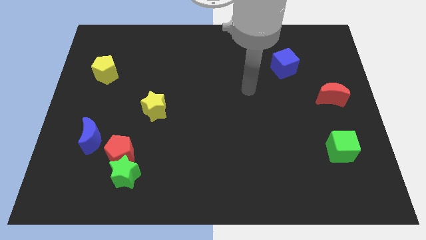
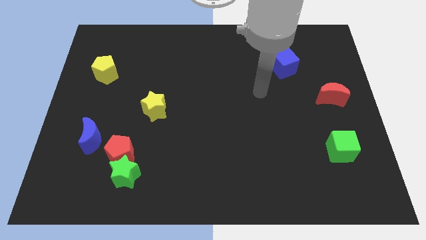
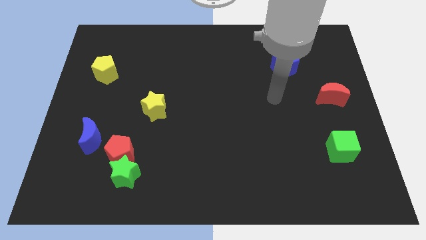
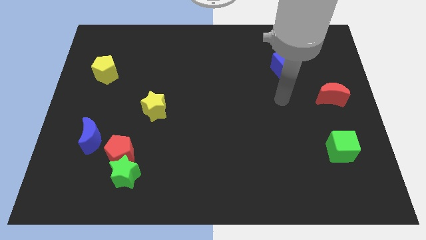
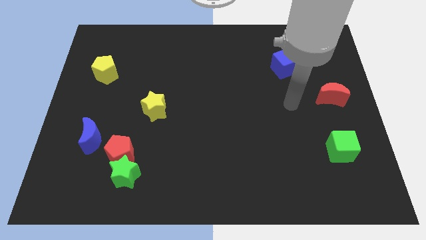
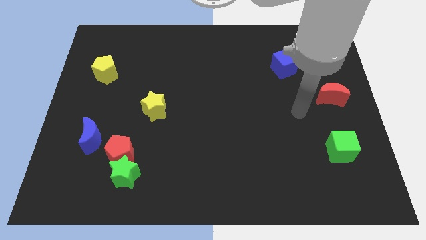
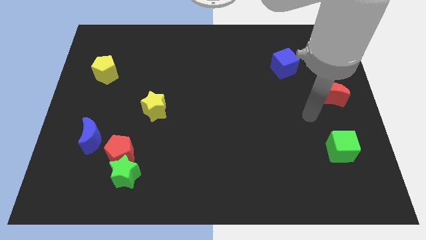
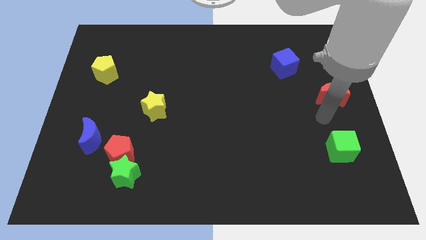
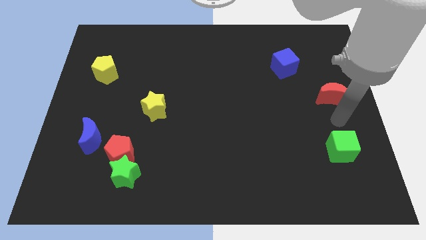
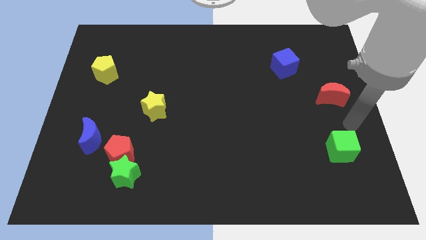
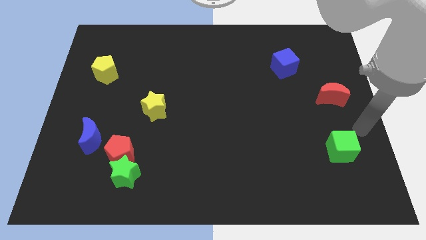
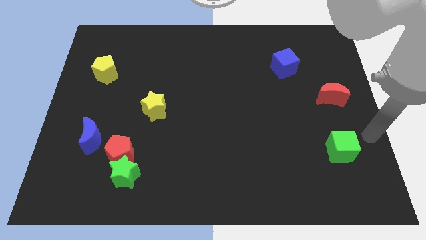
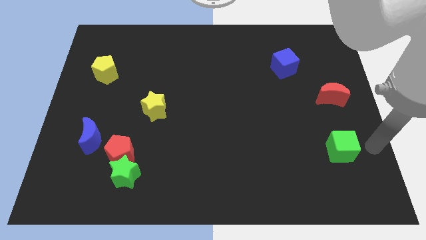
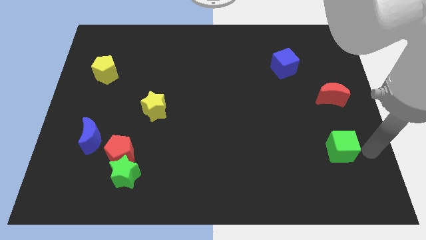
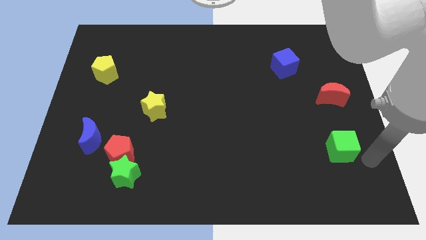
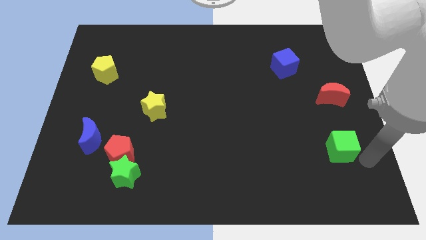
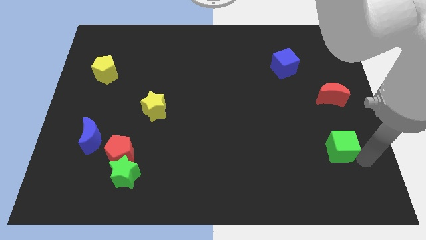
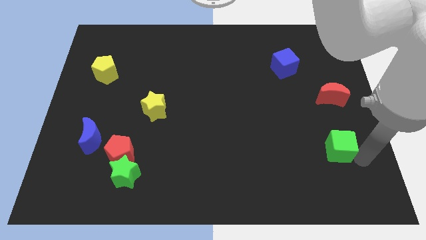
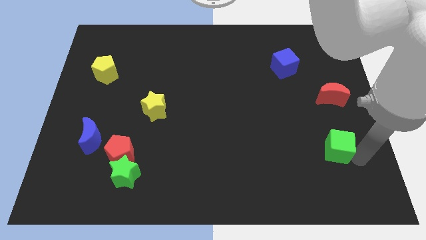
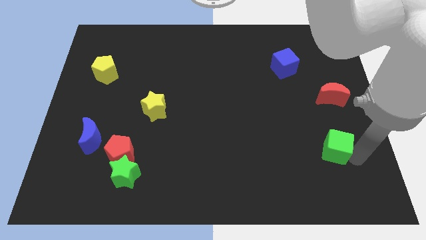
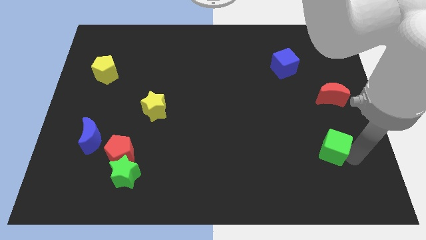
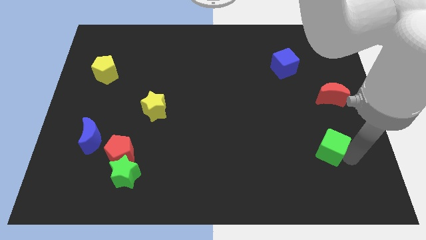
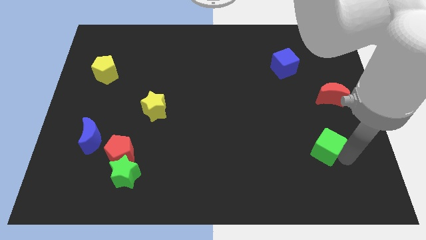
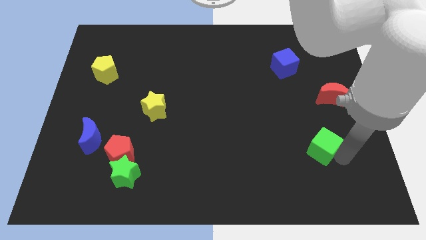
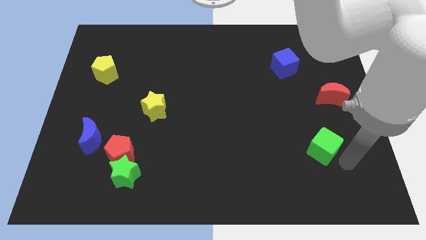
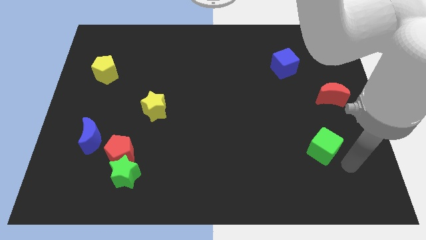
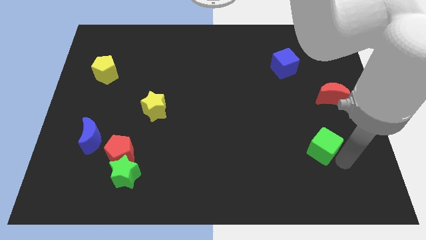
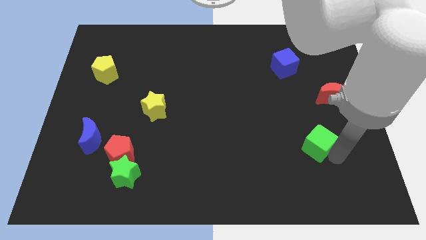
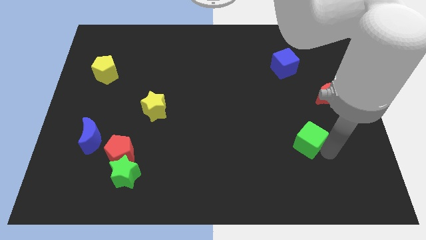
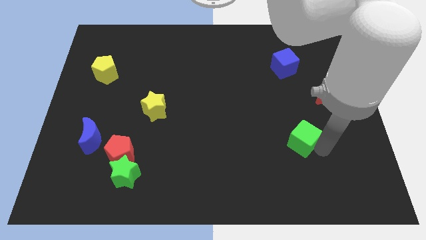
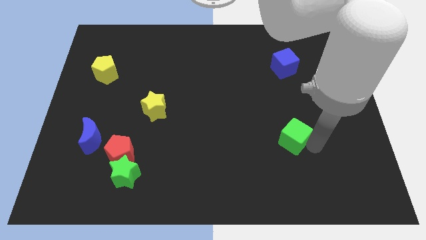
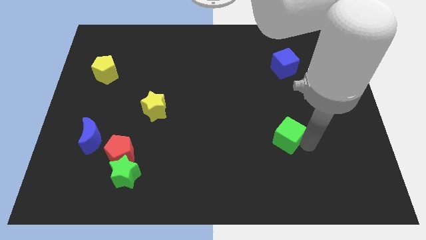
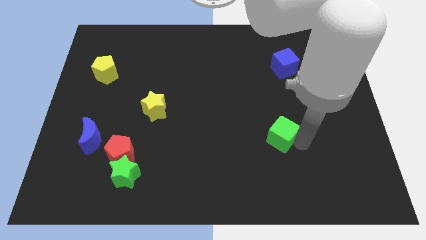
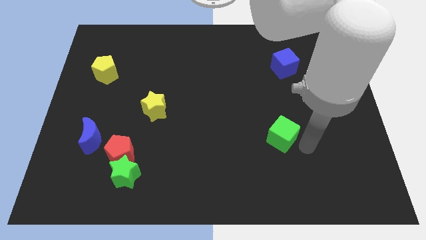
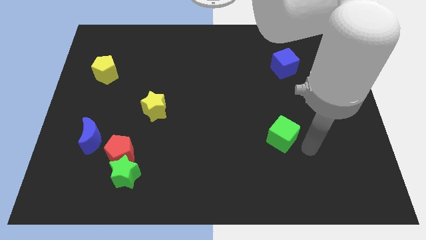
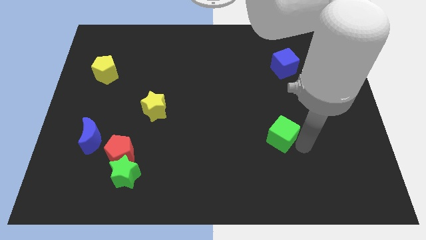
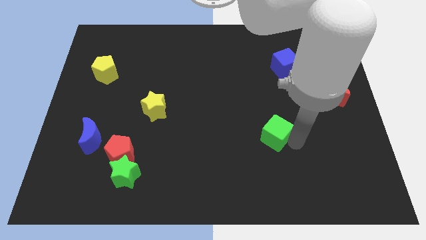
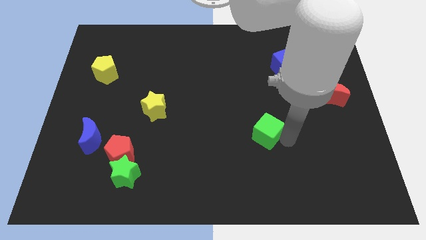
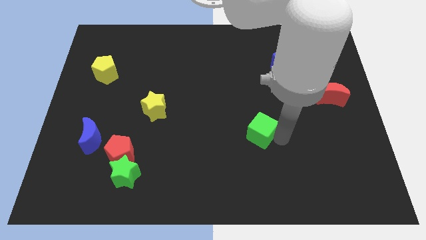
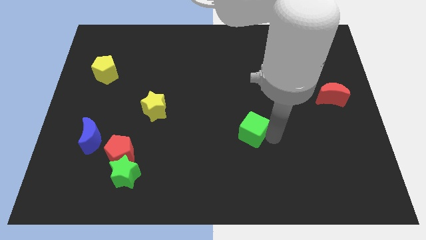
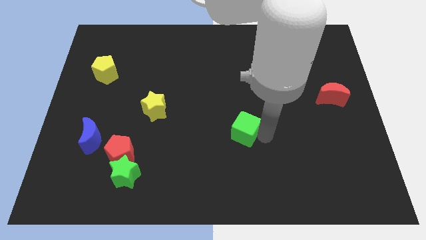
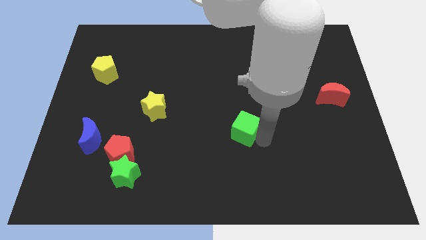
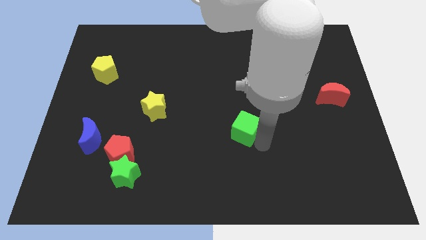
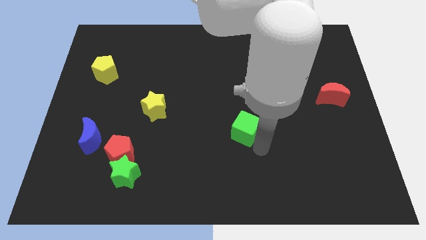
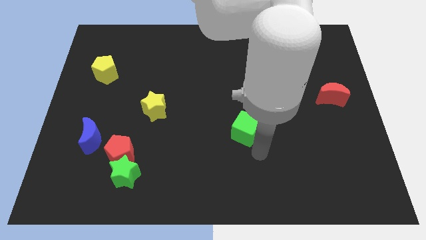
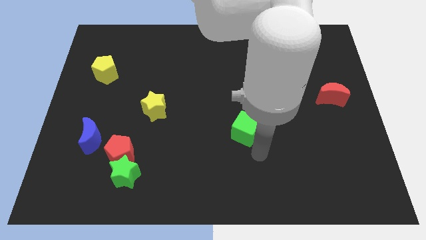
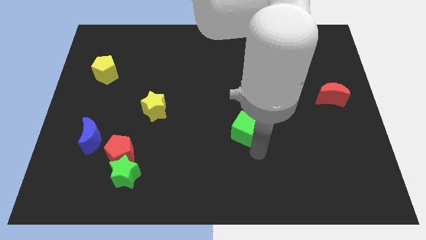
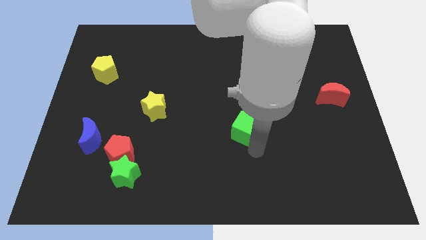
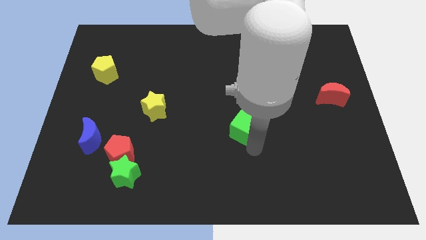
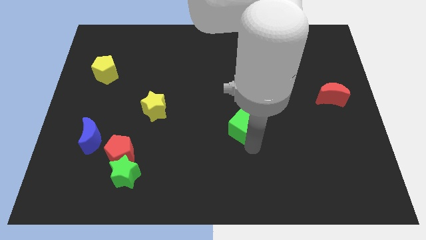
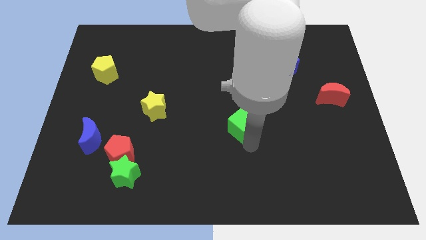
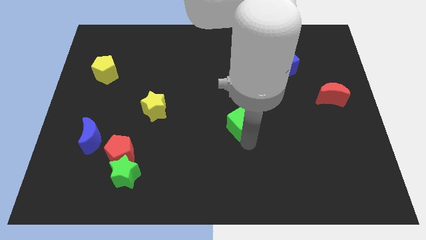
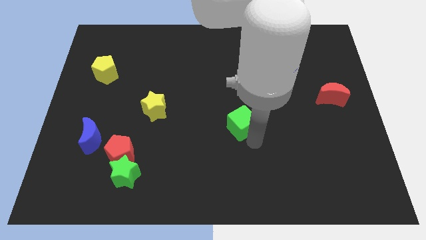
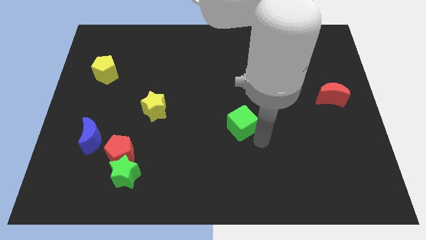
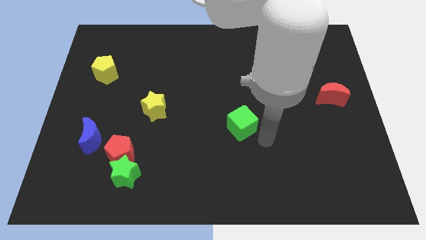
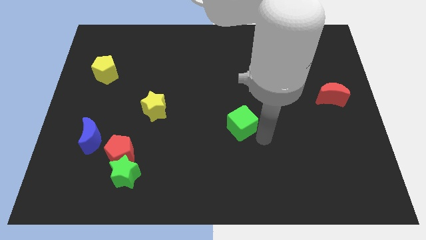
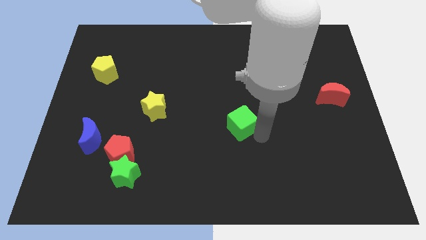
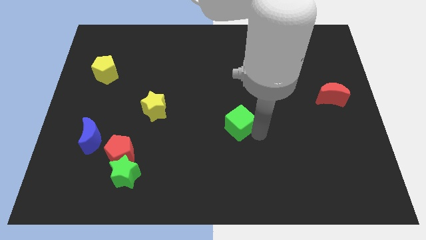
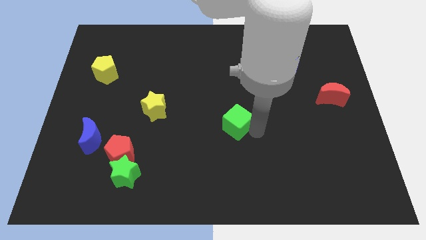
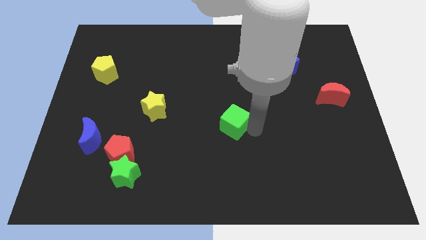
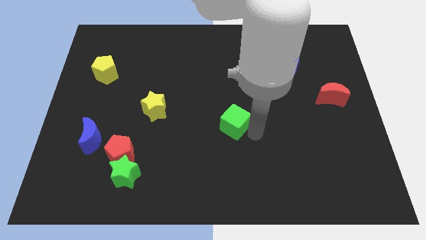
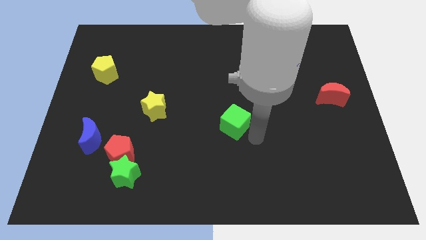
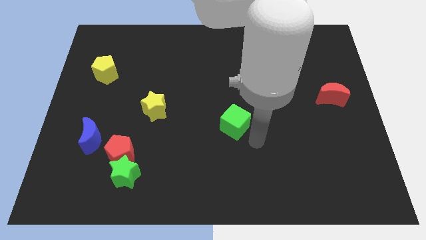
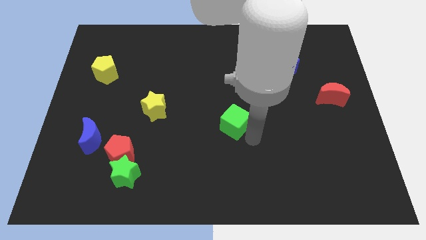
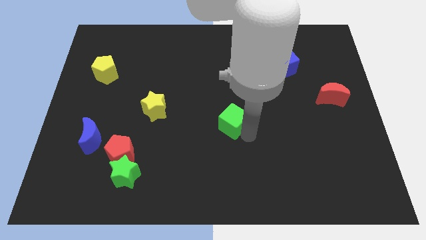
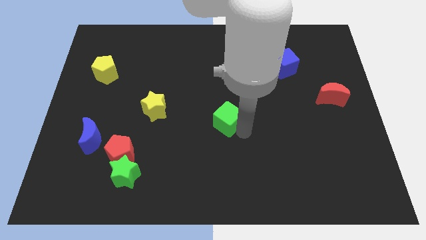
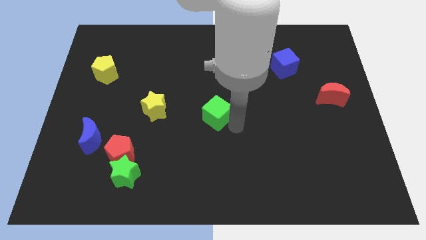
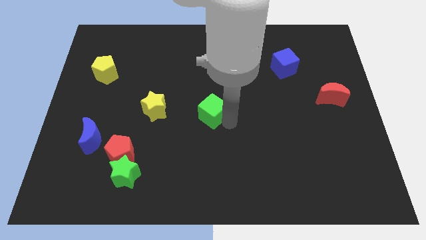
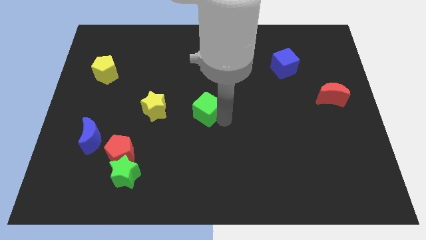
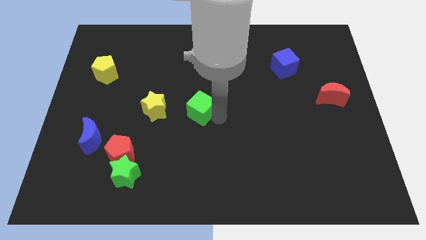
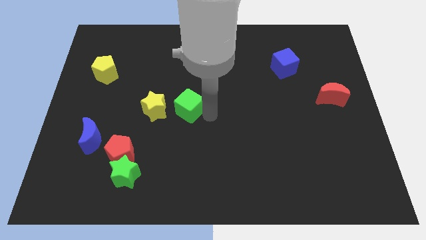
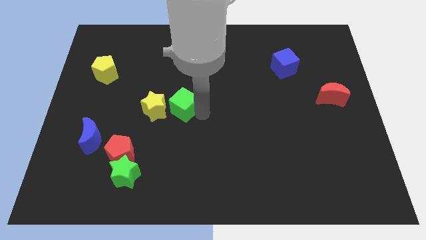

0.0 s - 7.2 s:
push the green cube diagonally up and to the right of the yellow star

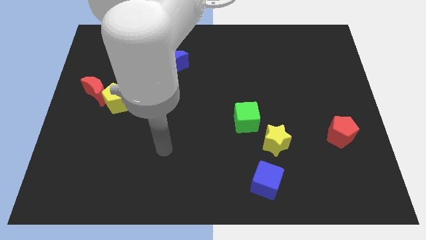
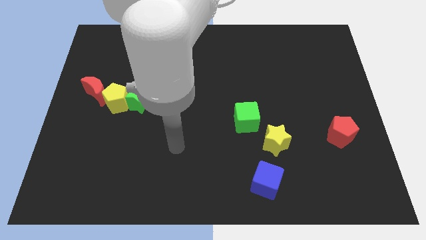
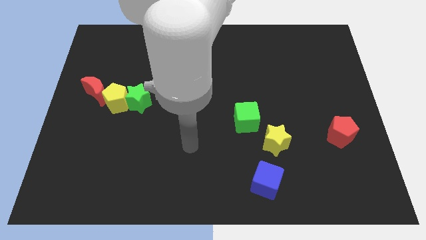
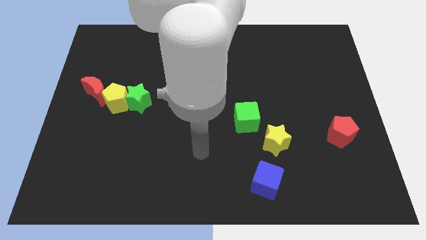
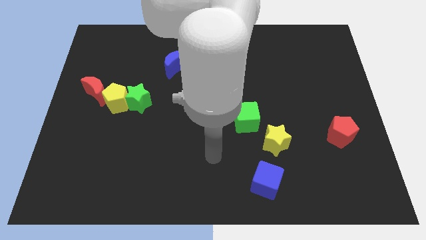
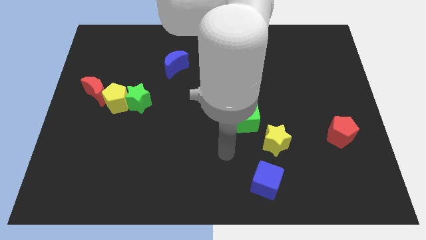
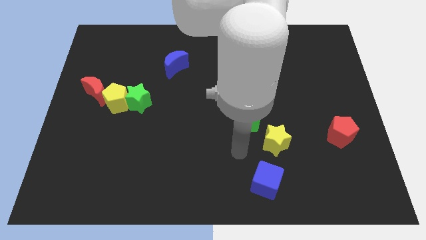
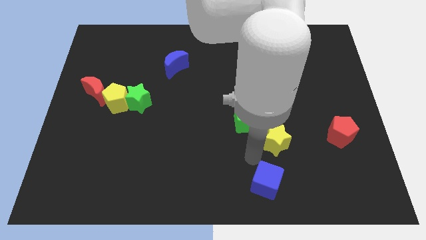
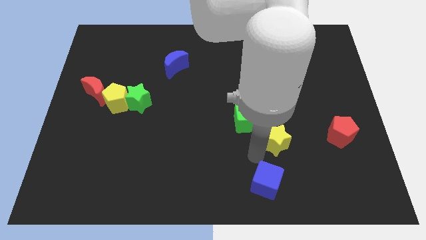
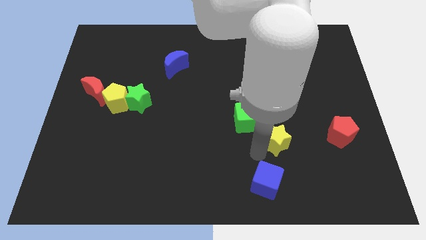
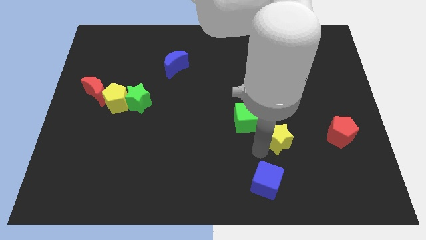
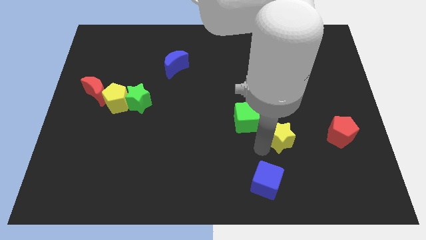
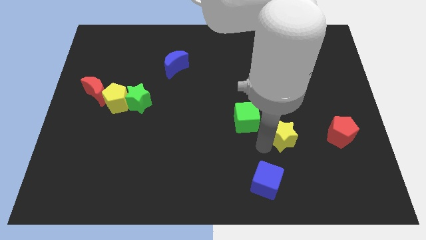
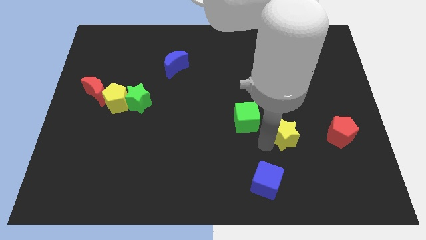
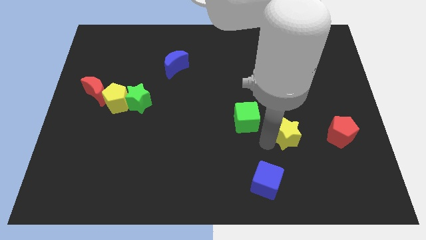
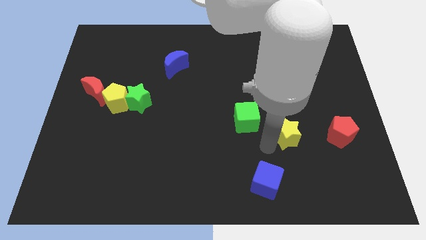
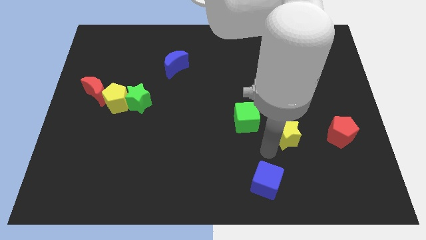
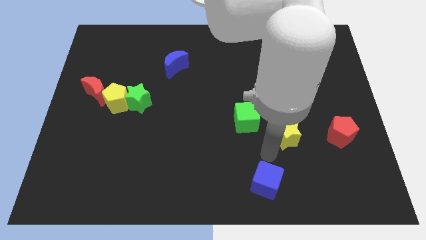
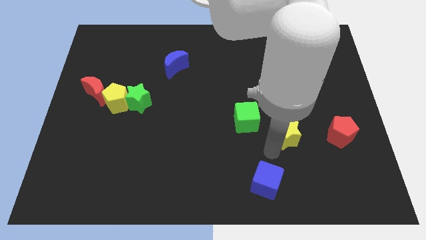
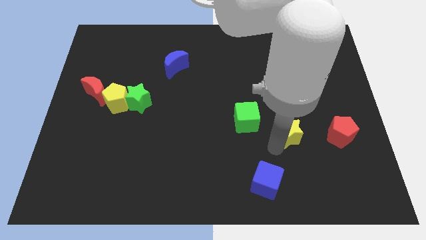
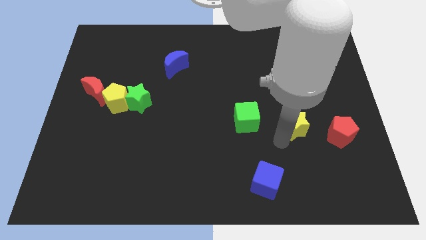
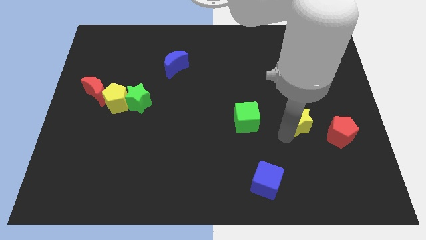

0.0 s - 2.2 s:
move the yellow star to the top left of the red pentagon
